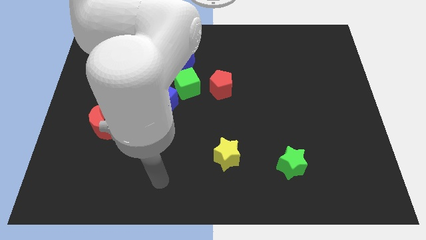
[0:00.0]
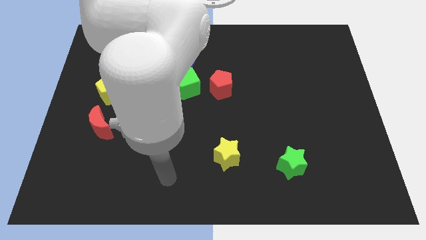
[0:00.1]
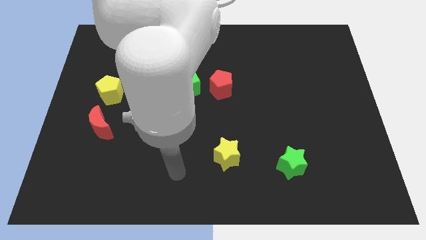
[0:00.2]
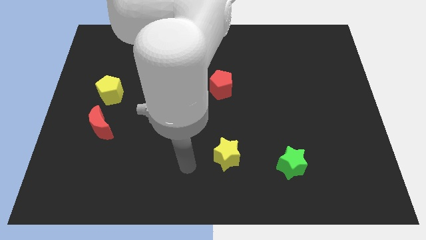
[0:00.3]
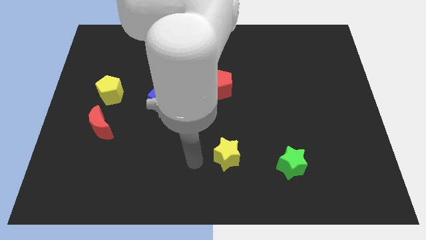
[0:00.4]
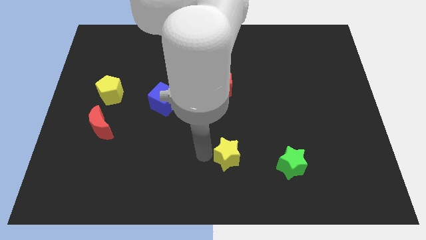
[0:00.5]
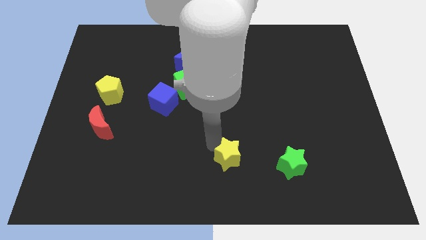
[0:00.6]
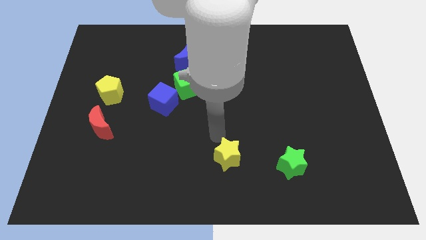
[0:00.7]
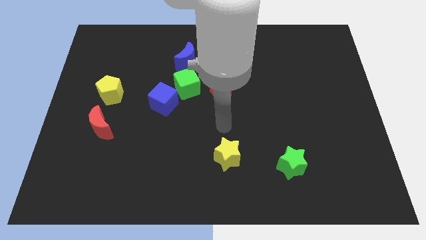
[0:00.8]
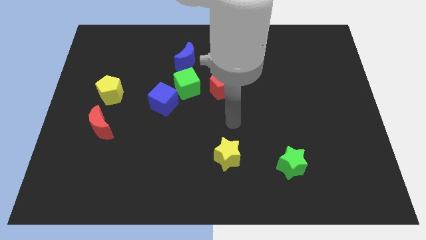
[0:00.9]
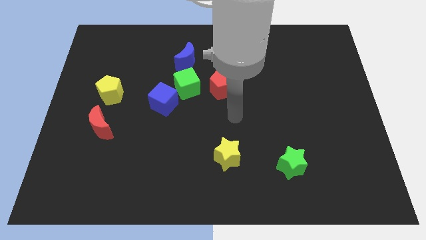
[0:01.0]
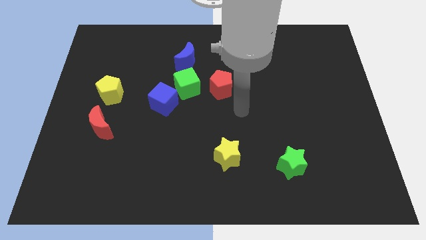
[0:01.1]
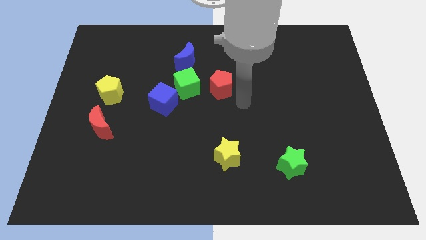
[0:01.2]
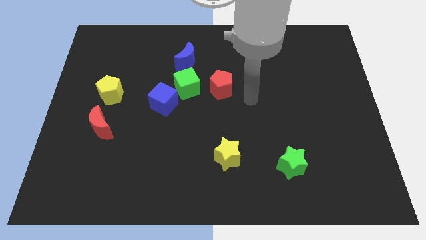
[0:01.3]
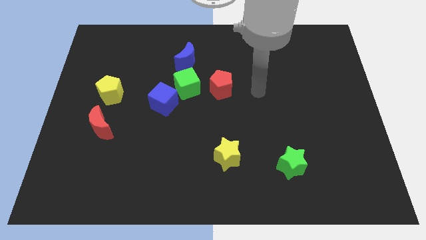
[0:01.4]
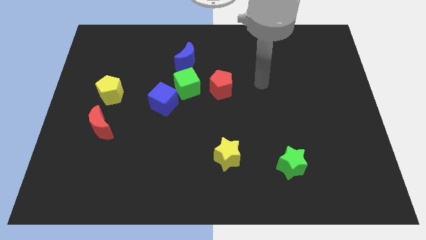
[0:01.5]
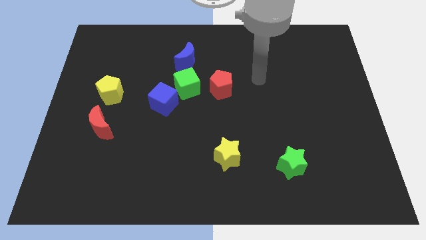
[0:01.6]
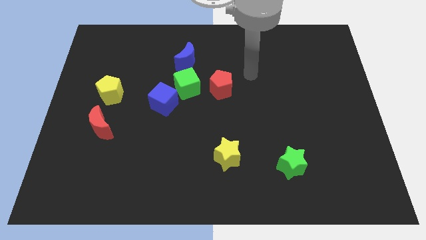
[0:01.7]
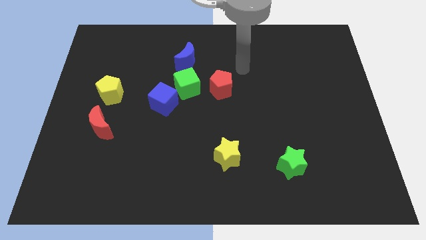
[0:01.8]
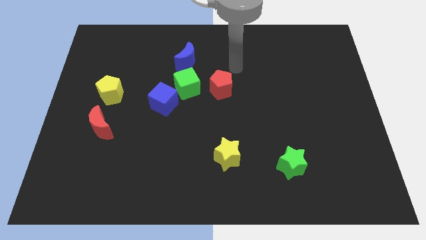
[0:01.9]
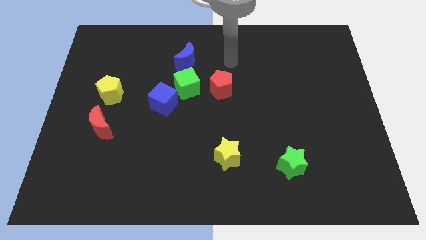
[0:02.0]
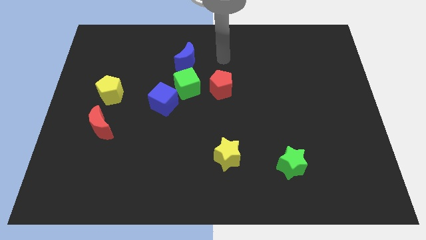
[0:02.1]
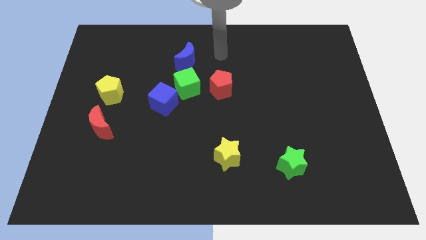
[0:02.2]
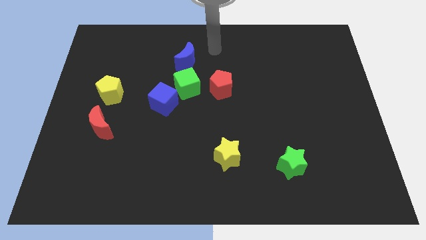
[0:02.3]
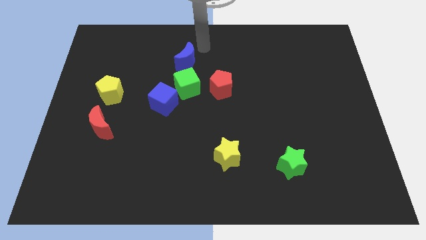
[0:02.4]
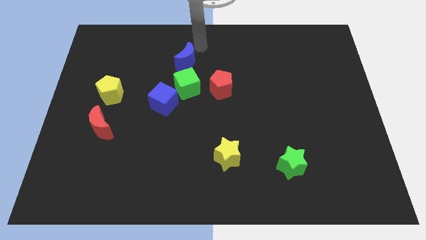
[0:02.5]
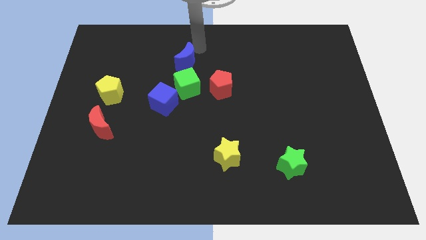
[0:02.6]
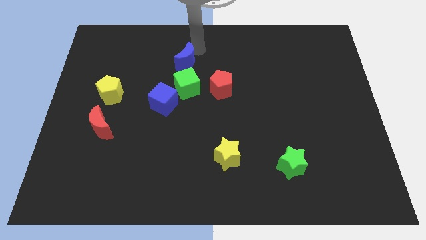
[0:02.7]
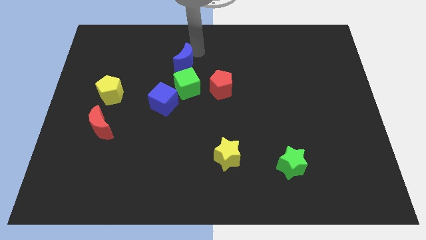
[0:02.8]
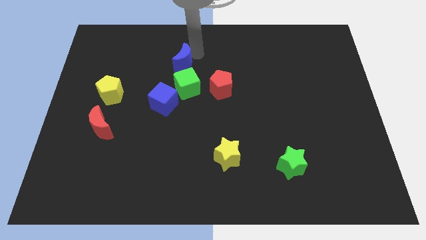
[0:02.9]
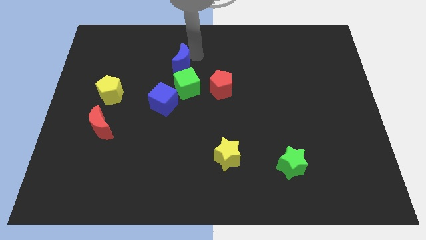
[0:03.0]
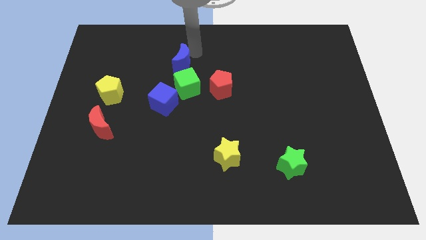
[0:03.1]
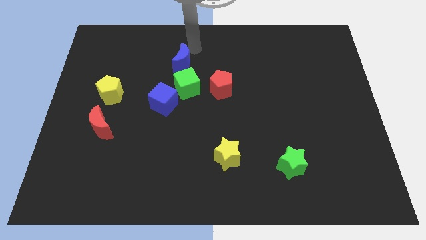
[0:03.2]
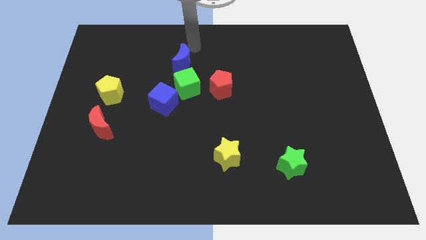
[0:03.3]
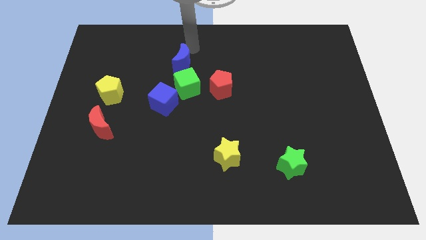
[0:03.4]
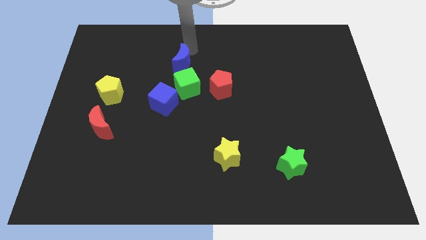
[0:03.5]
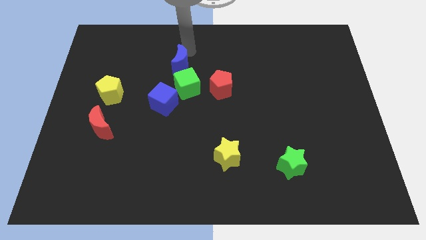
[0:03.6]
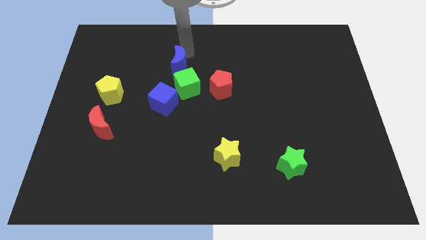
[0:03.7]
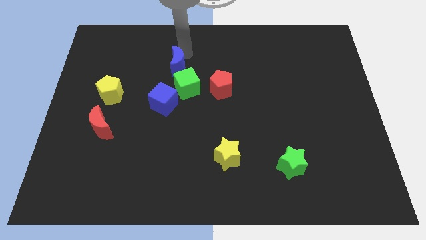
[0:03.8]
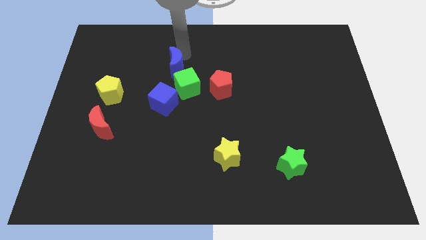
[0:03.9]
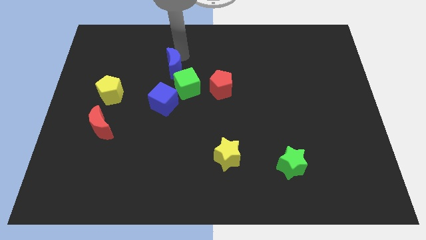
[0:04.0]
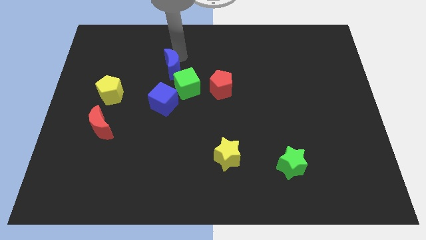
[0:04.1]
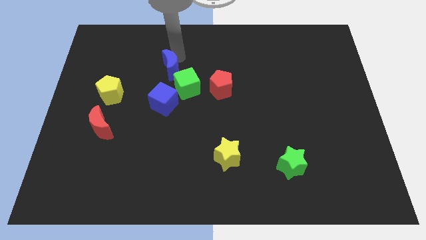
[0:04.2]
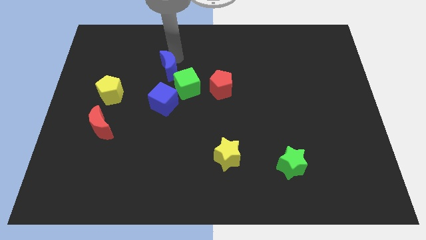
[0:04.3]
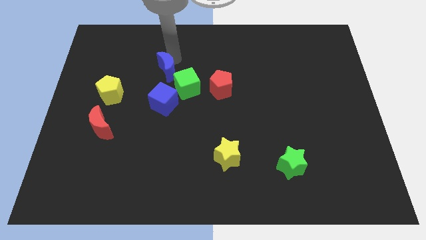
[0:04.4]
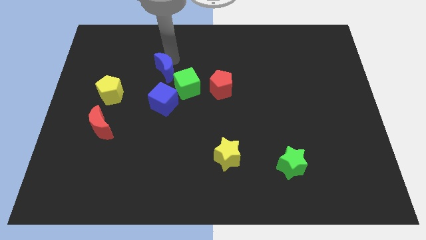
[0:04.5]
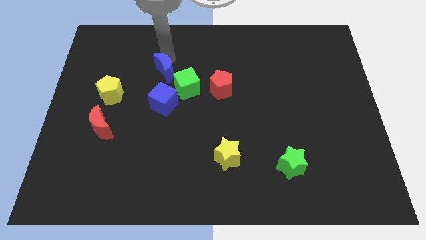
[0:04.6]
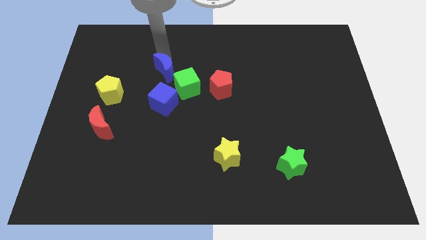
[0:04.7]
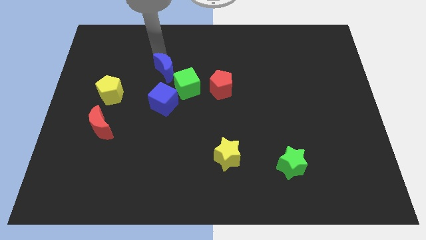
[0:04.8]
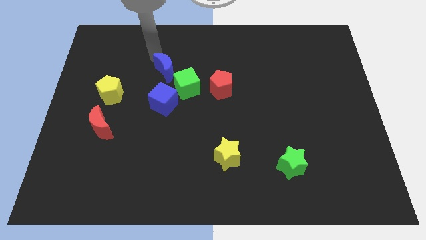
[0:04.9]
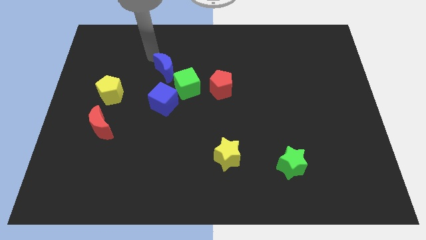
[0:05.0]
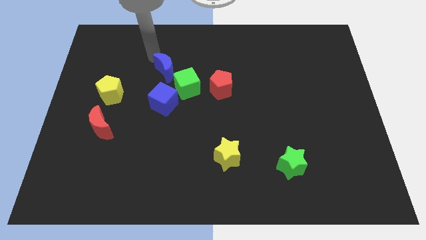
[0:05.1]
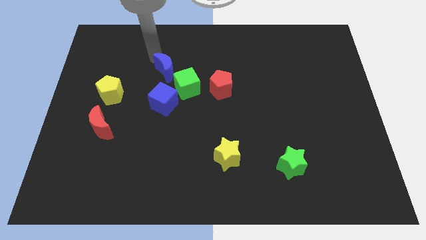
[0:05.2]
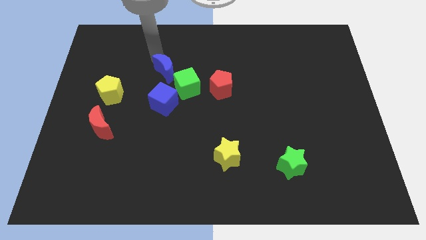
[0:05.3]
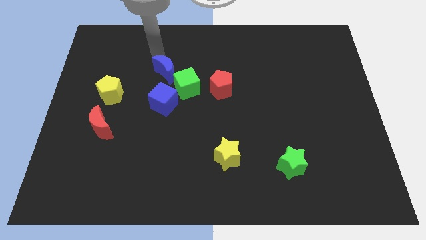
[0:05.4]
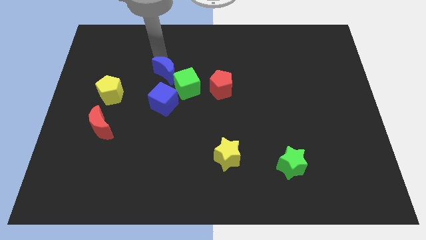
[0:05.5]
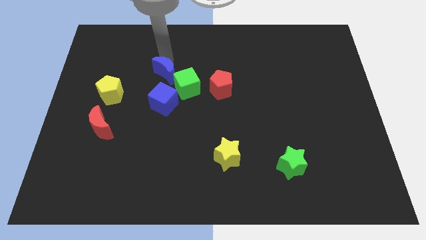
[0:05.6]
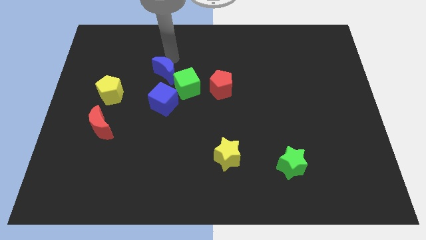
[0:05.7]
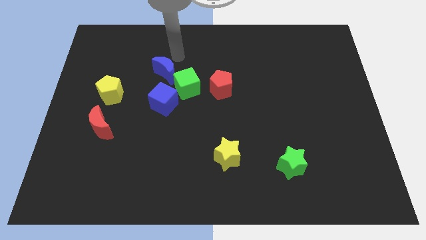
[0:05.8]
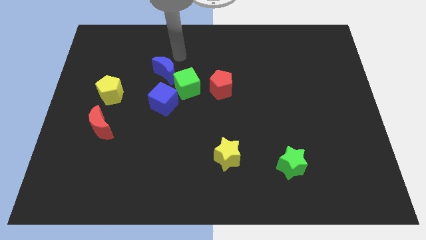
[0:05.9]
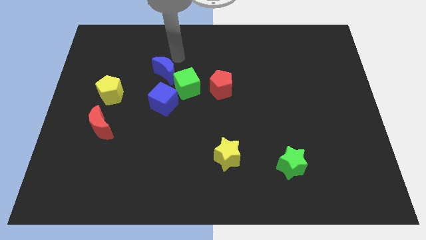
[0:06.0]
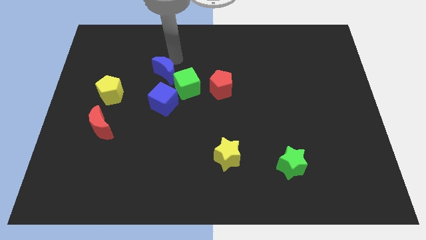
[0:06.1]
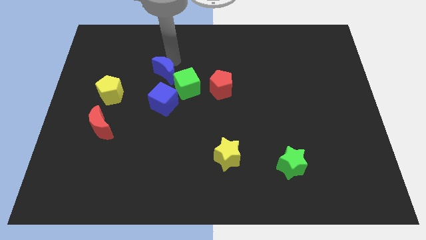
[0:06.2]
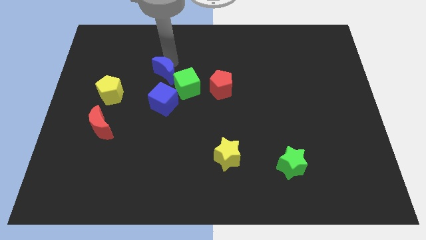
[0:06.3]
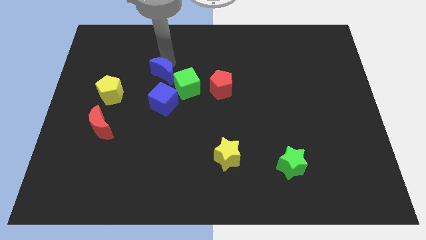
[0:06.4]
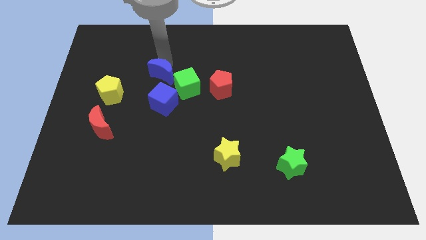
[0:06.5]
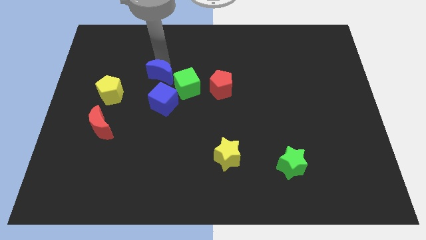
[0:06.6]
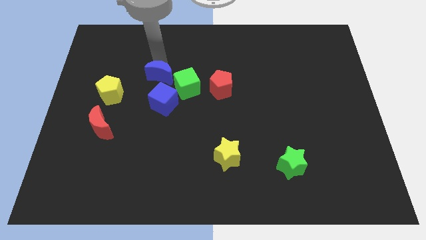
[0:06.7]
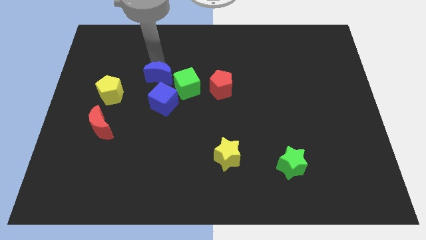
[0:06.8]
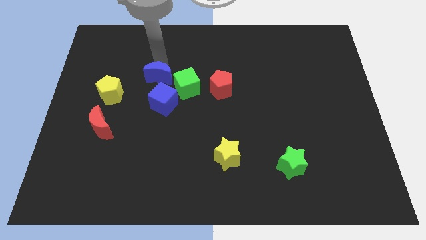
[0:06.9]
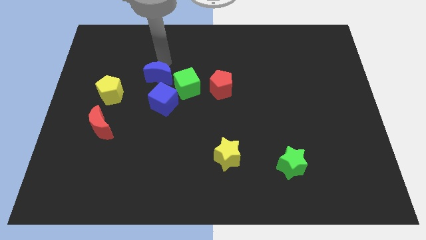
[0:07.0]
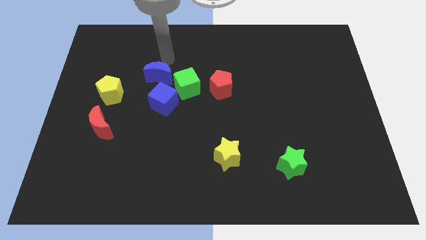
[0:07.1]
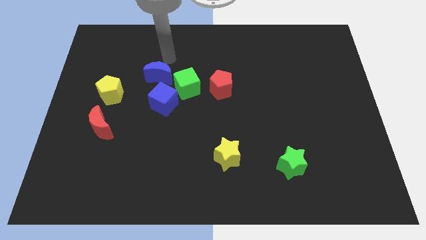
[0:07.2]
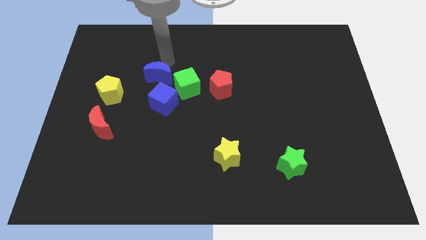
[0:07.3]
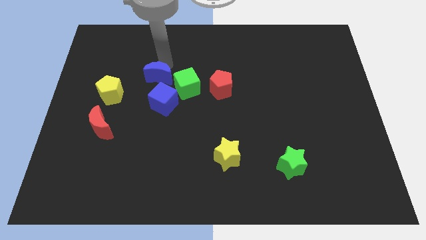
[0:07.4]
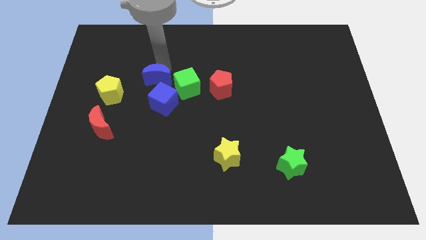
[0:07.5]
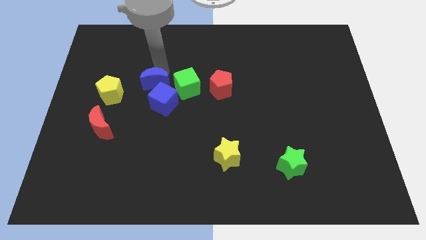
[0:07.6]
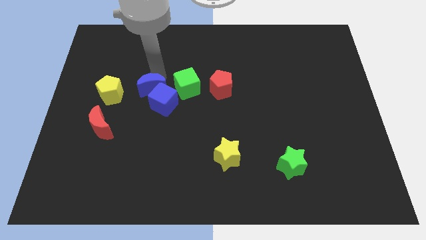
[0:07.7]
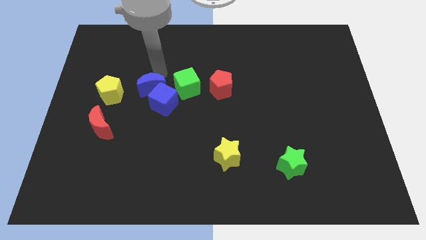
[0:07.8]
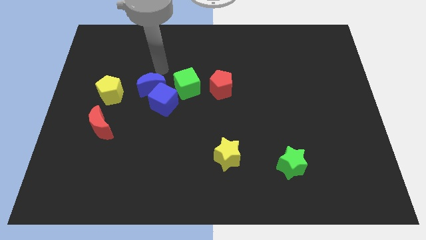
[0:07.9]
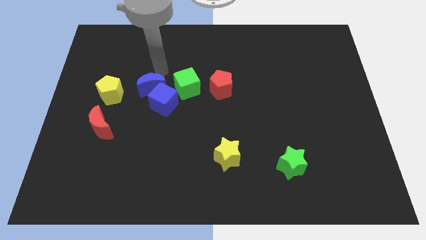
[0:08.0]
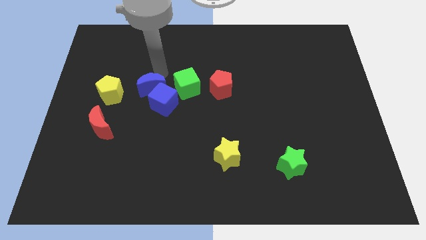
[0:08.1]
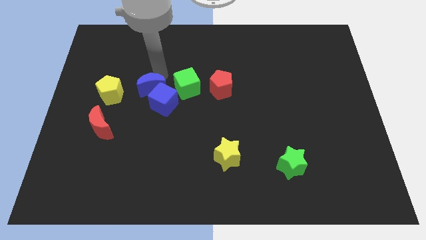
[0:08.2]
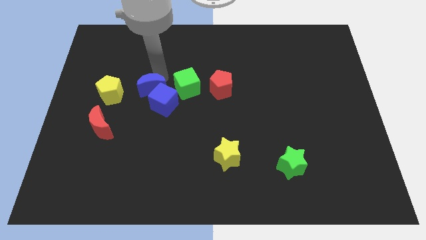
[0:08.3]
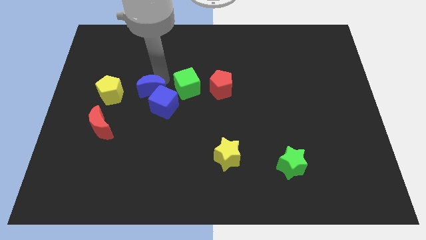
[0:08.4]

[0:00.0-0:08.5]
slide the blue moon a little downwards
